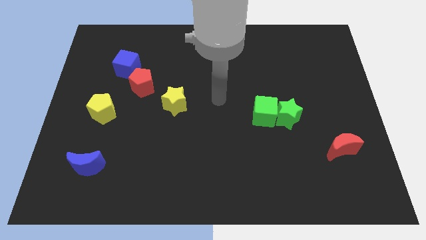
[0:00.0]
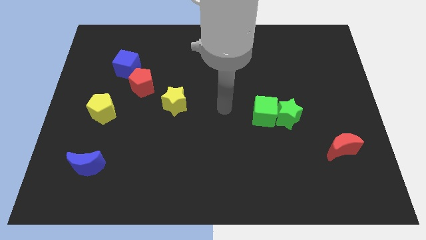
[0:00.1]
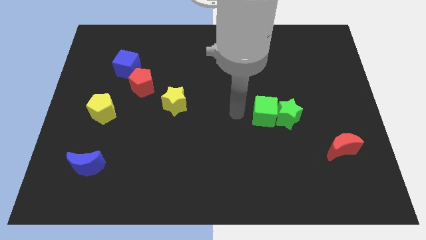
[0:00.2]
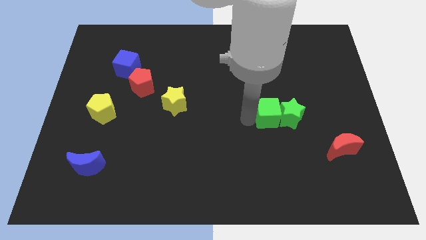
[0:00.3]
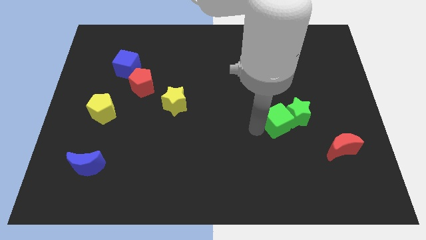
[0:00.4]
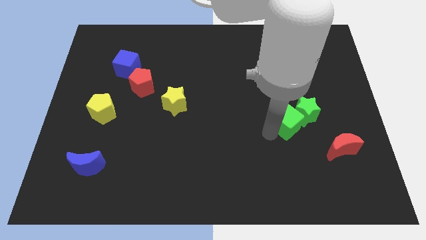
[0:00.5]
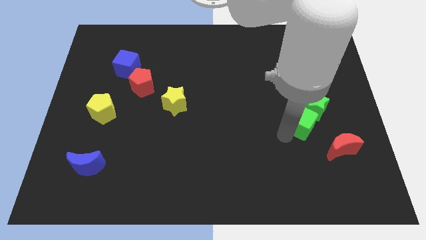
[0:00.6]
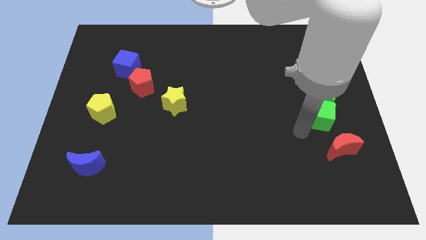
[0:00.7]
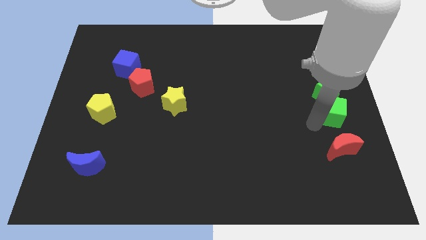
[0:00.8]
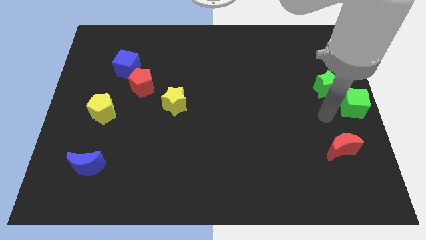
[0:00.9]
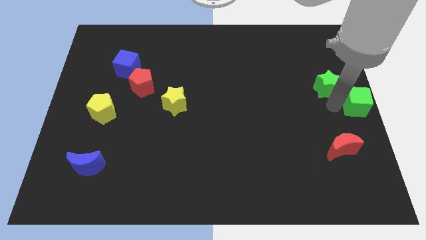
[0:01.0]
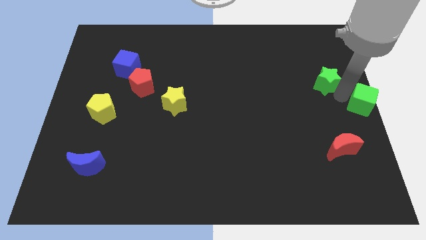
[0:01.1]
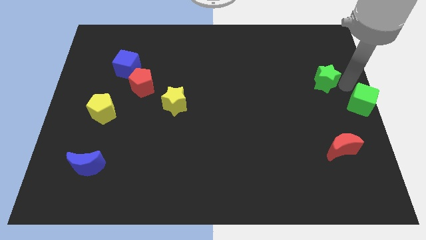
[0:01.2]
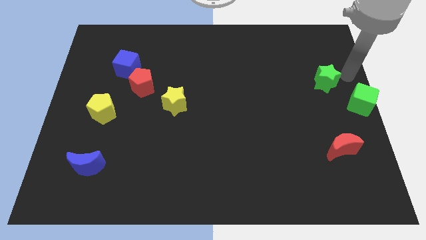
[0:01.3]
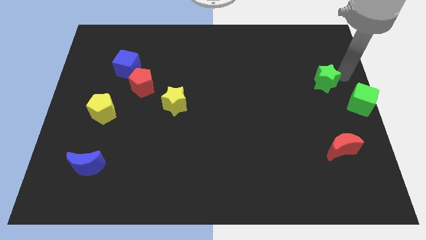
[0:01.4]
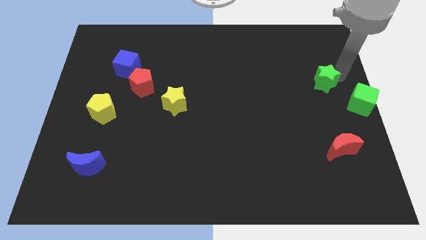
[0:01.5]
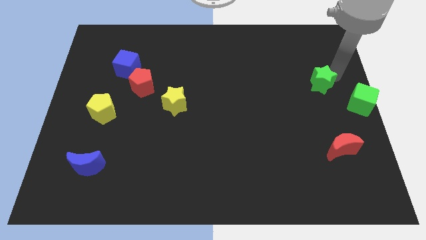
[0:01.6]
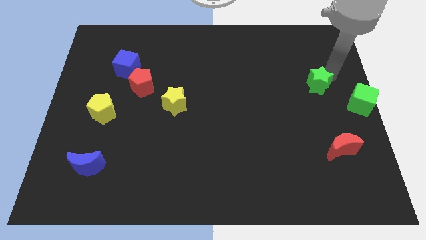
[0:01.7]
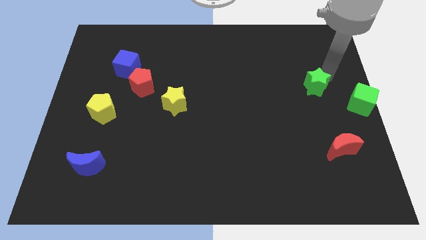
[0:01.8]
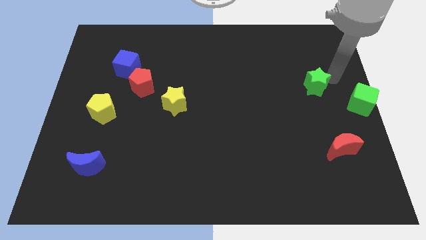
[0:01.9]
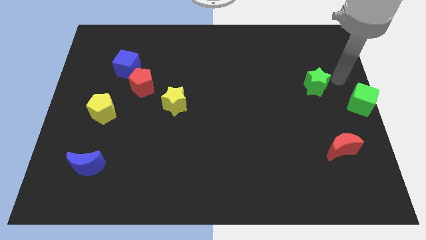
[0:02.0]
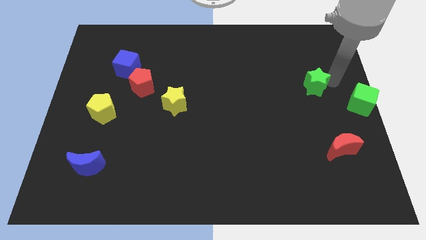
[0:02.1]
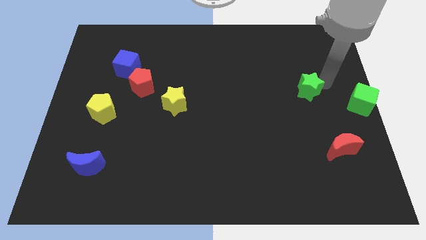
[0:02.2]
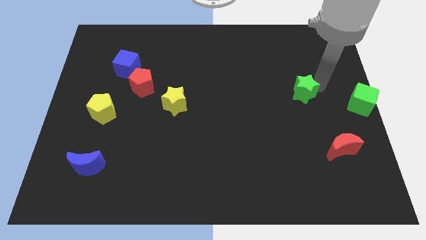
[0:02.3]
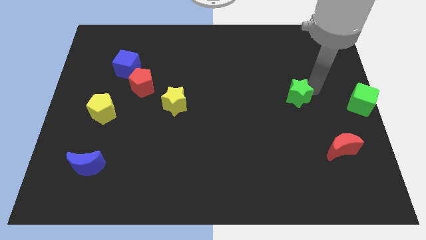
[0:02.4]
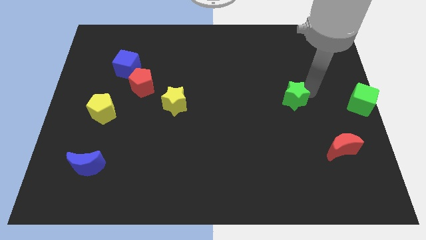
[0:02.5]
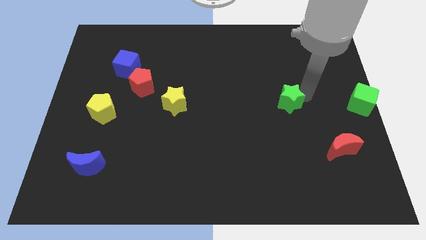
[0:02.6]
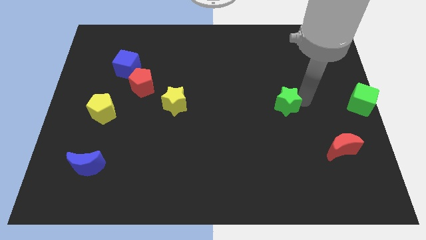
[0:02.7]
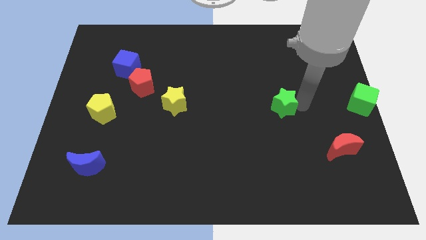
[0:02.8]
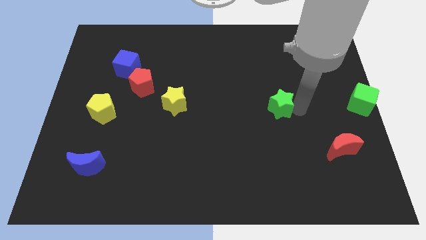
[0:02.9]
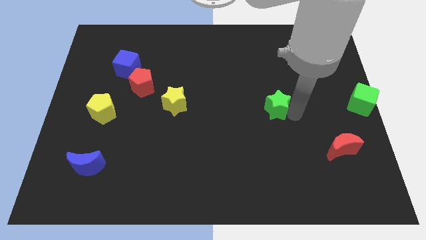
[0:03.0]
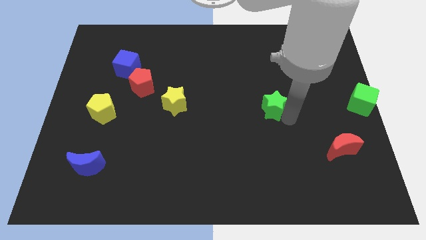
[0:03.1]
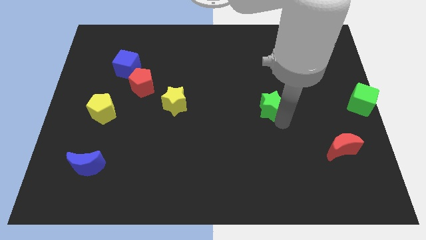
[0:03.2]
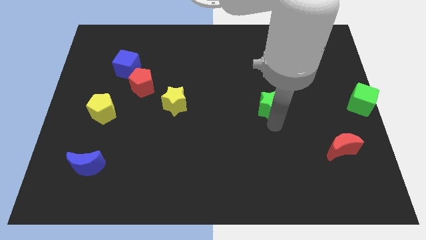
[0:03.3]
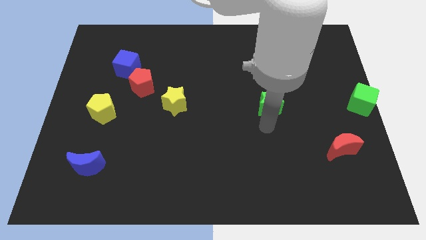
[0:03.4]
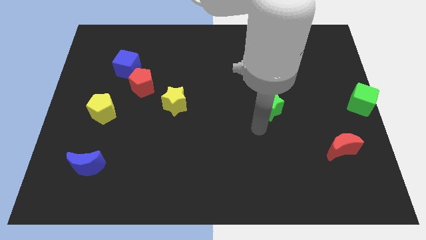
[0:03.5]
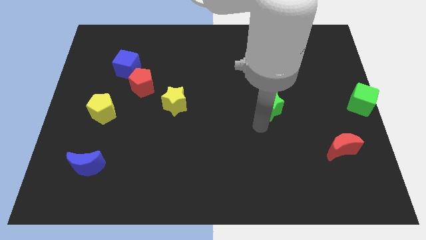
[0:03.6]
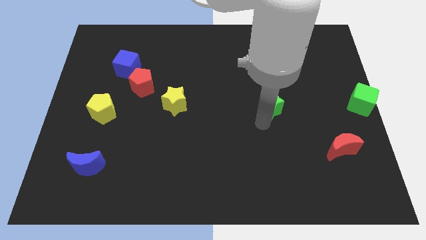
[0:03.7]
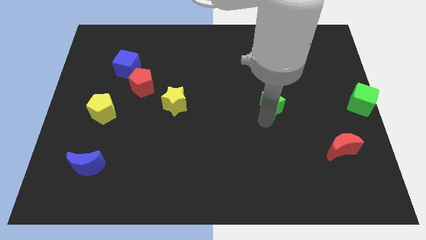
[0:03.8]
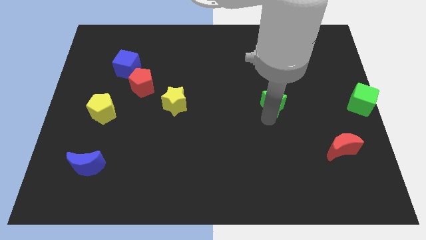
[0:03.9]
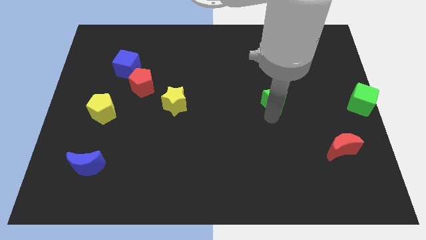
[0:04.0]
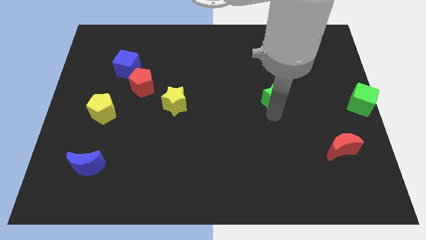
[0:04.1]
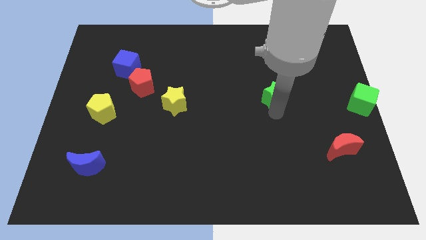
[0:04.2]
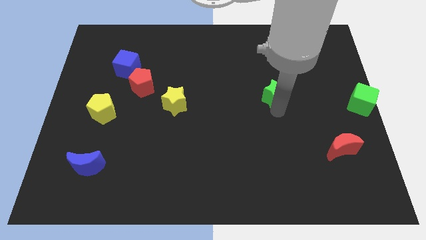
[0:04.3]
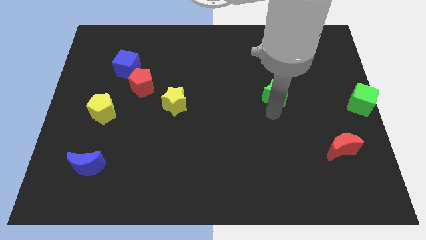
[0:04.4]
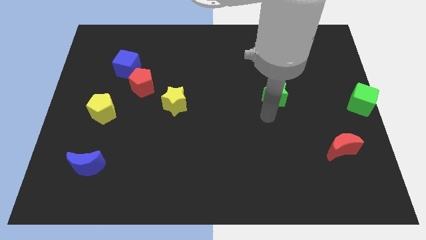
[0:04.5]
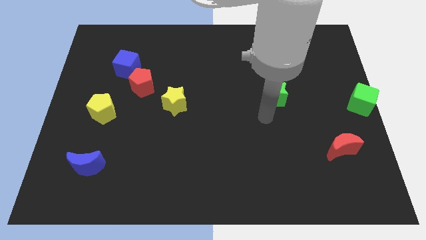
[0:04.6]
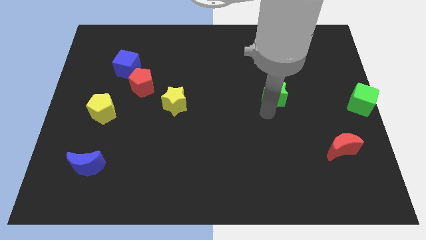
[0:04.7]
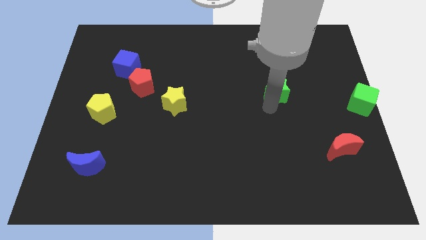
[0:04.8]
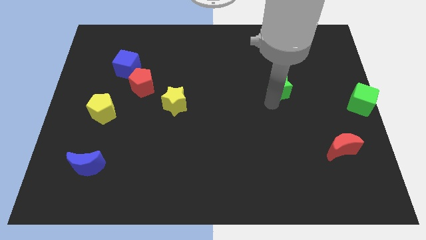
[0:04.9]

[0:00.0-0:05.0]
slide the green star a little upwards

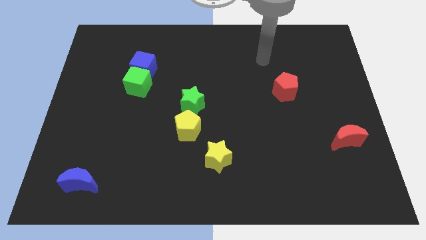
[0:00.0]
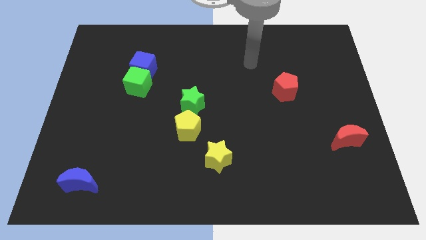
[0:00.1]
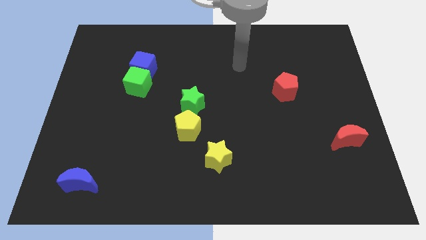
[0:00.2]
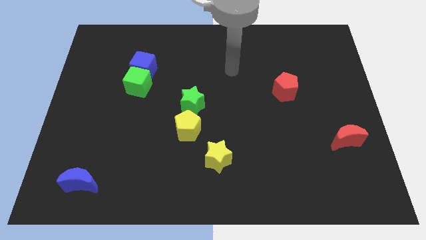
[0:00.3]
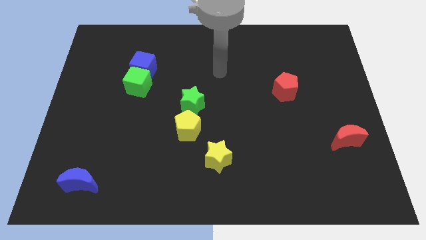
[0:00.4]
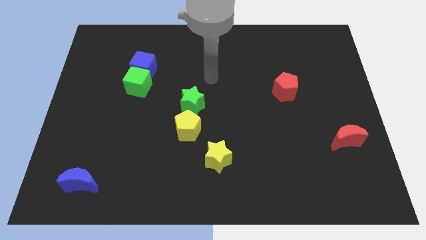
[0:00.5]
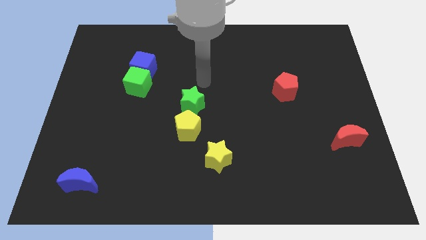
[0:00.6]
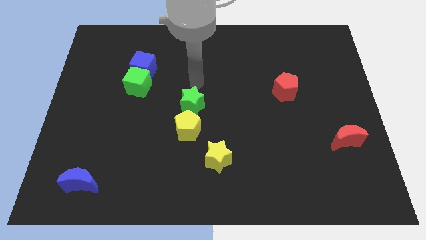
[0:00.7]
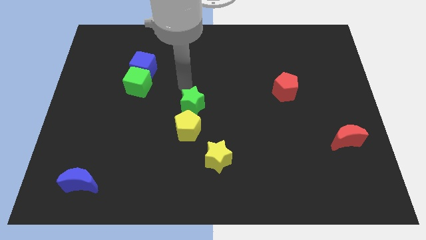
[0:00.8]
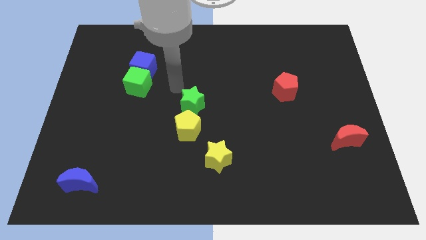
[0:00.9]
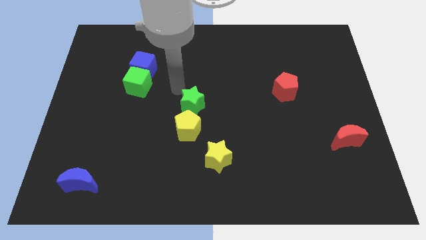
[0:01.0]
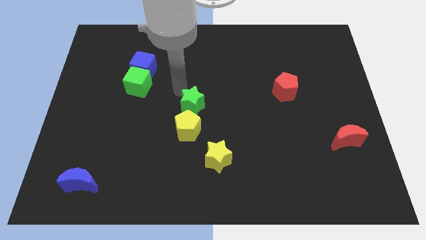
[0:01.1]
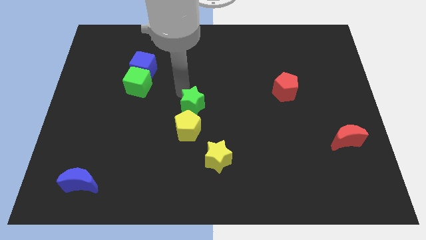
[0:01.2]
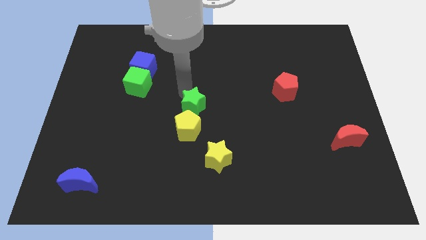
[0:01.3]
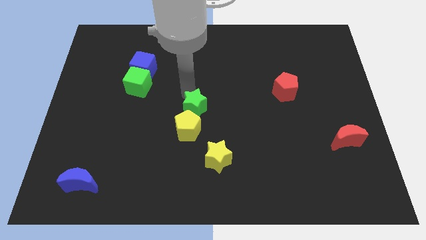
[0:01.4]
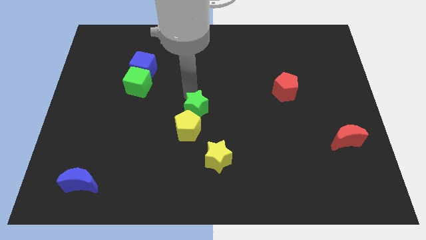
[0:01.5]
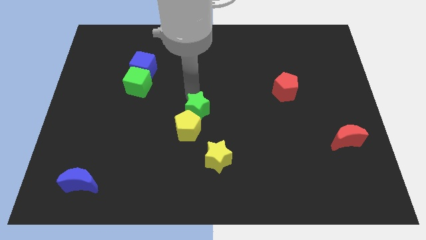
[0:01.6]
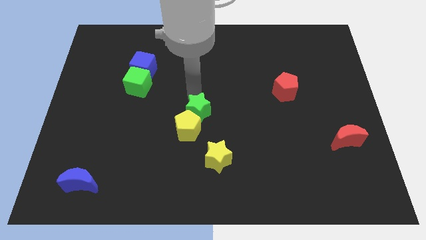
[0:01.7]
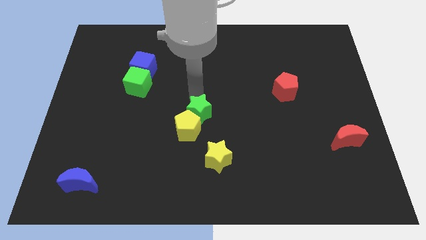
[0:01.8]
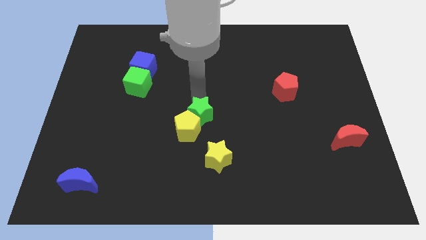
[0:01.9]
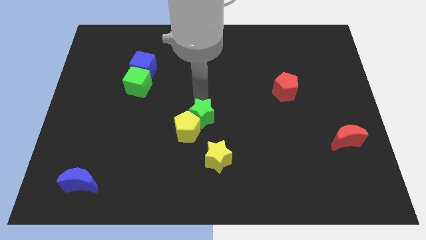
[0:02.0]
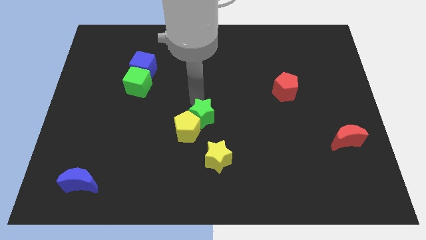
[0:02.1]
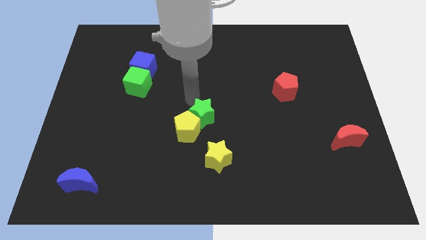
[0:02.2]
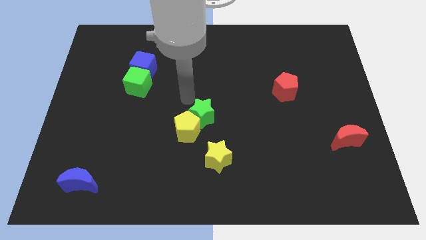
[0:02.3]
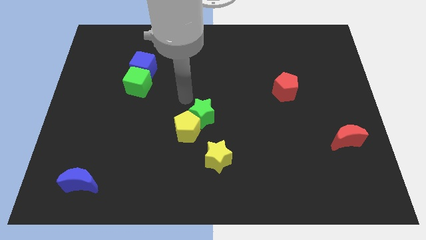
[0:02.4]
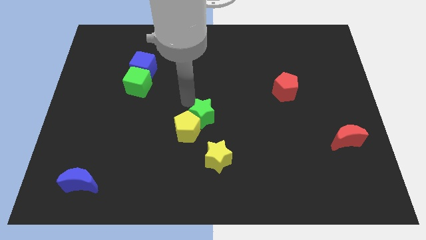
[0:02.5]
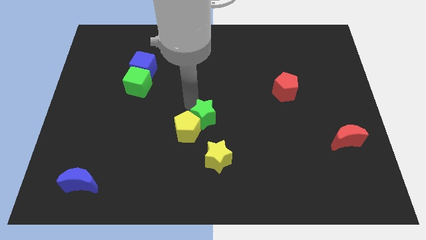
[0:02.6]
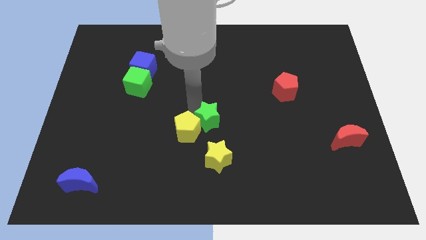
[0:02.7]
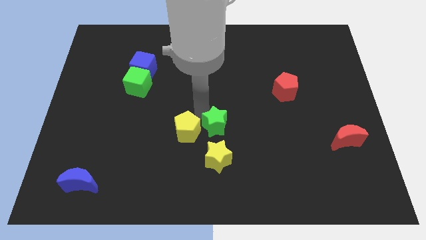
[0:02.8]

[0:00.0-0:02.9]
push the green star down and right diagonally a bit

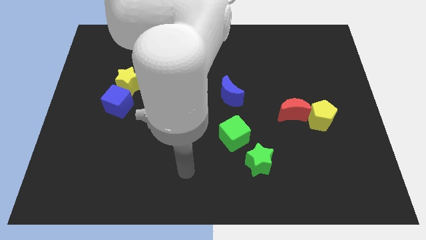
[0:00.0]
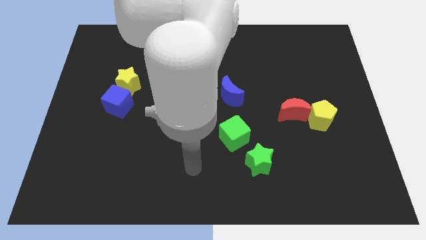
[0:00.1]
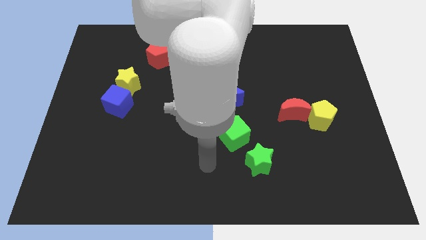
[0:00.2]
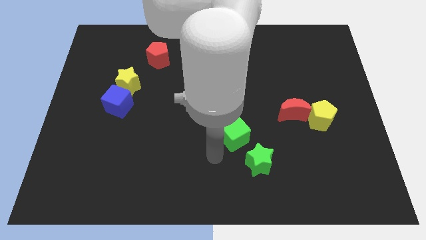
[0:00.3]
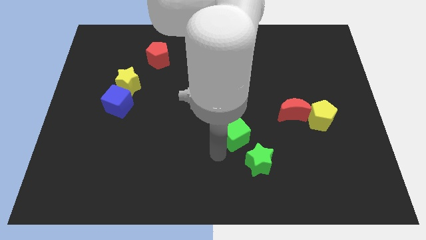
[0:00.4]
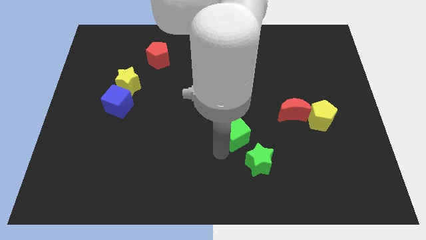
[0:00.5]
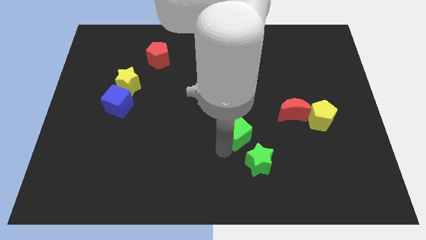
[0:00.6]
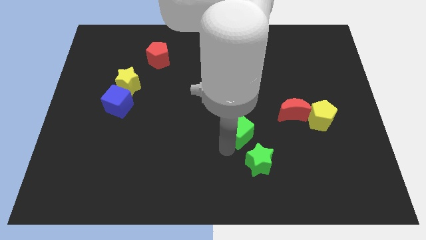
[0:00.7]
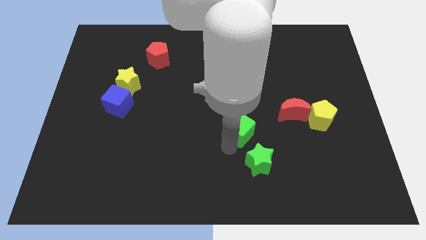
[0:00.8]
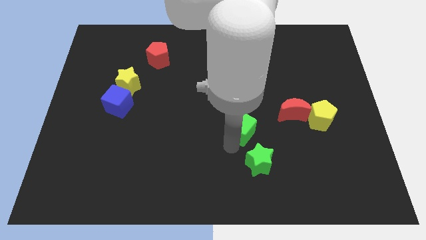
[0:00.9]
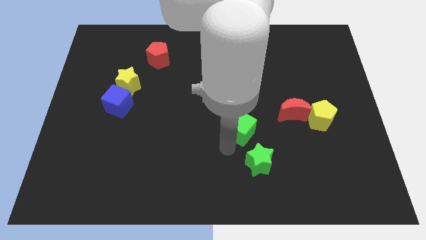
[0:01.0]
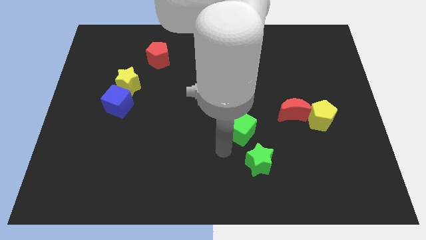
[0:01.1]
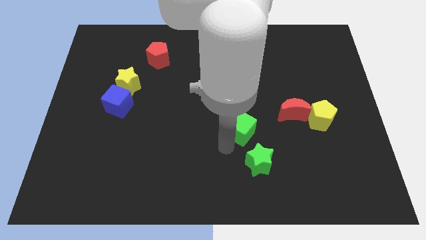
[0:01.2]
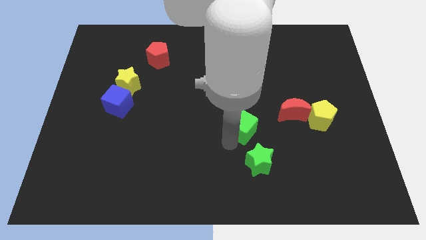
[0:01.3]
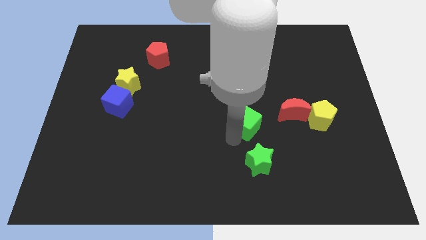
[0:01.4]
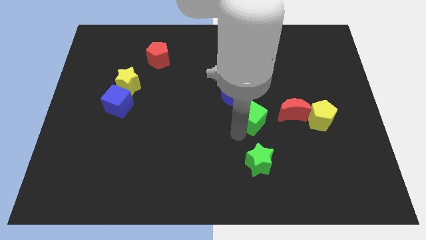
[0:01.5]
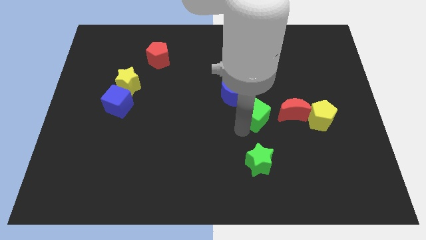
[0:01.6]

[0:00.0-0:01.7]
move the green cube somewhat upwards and then to the right
